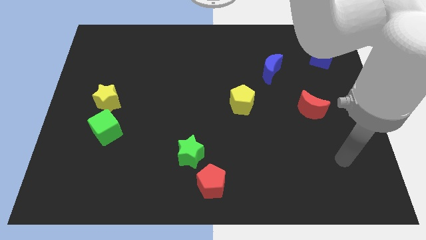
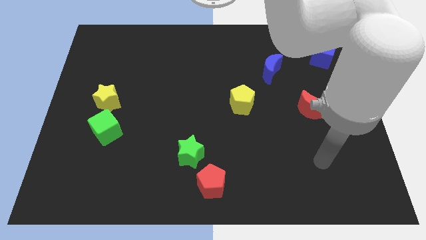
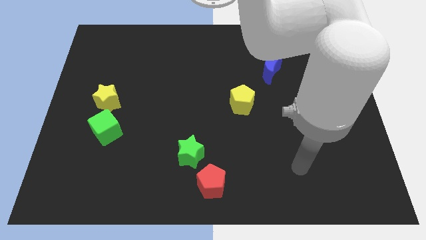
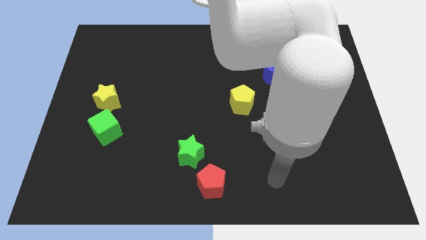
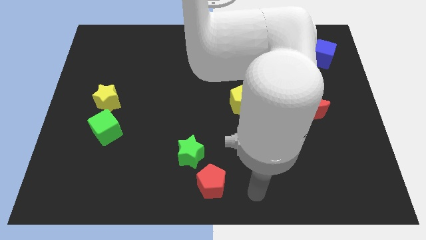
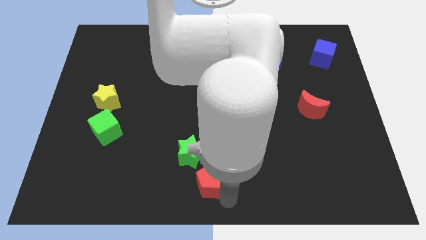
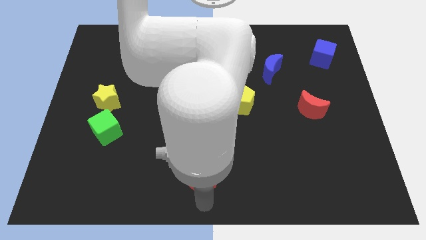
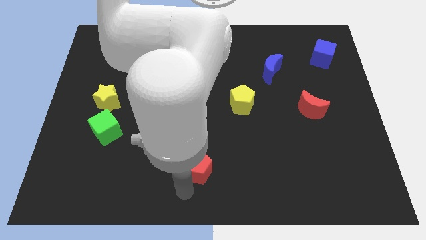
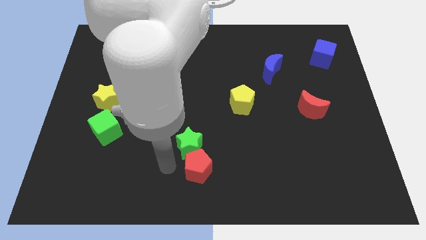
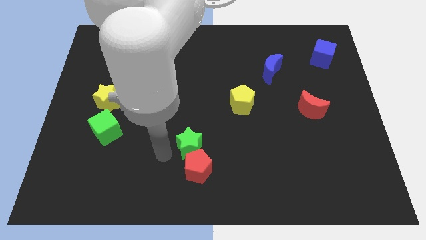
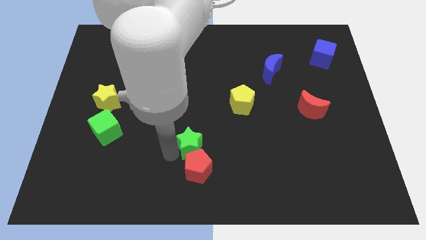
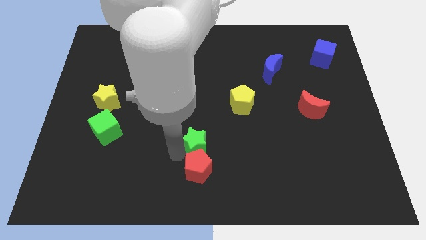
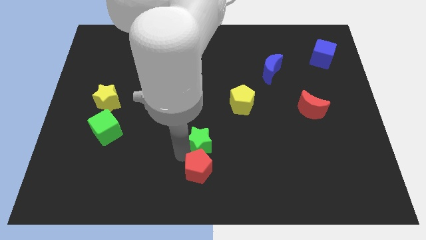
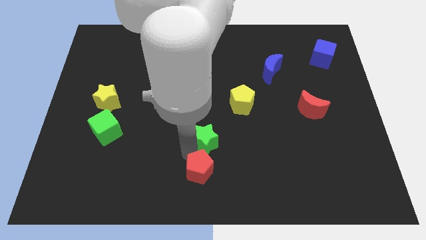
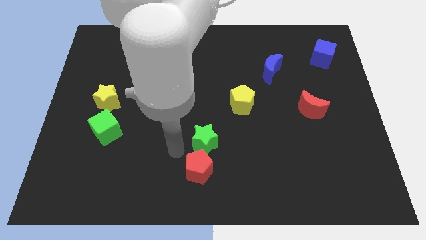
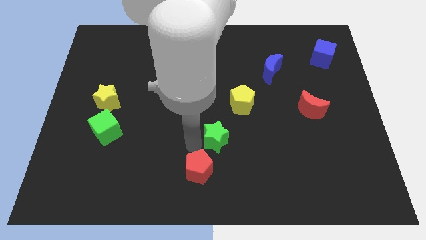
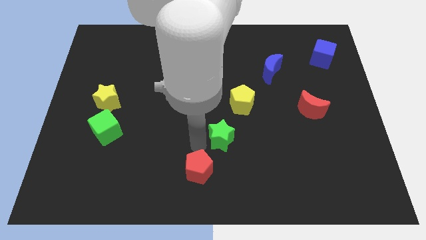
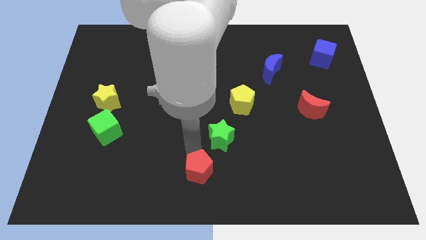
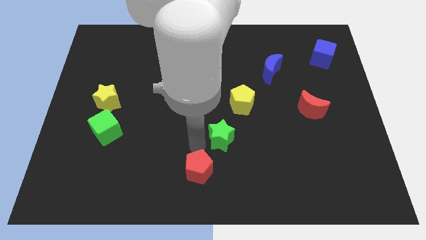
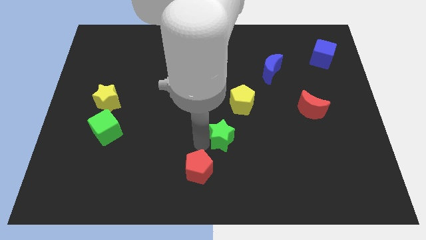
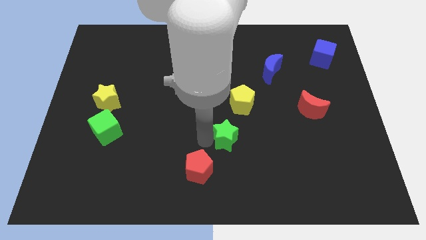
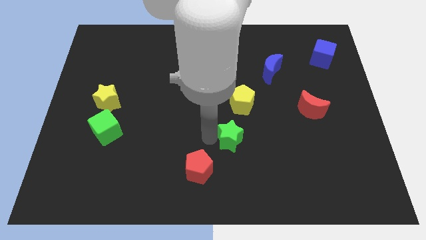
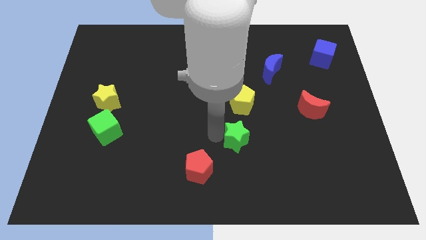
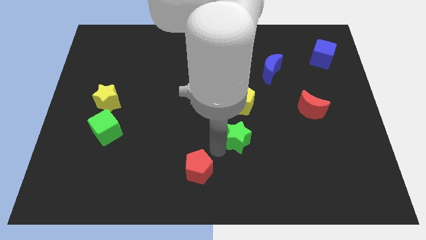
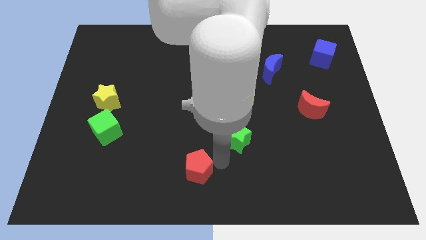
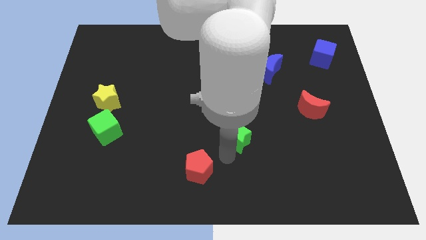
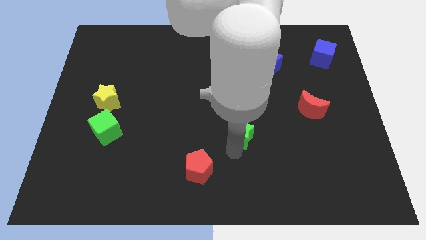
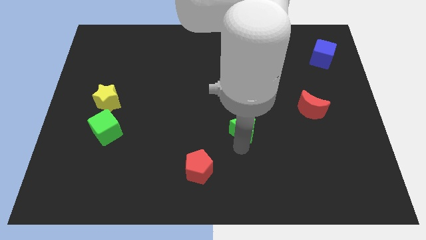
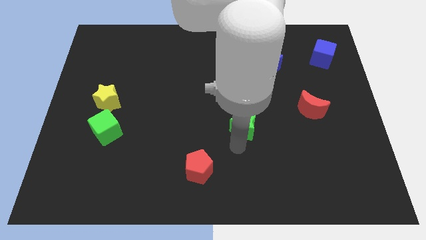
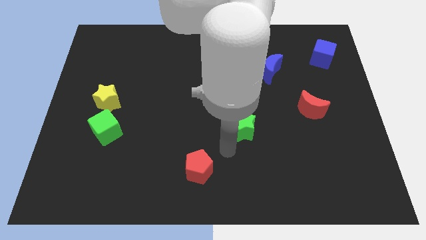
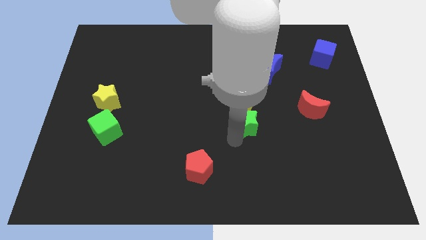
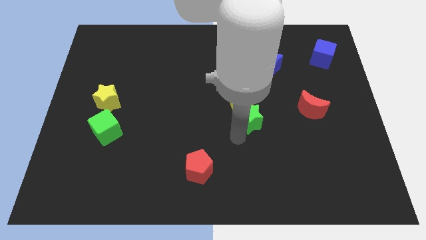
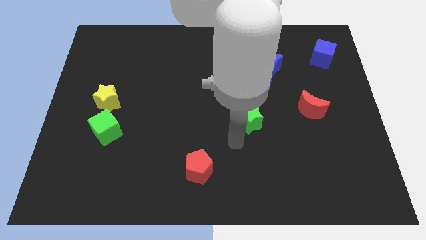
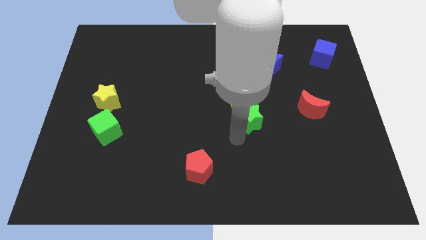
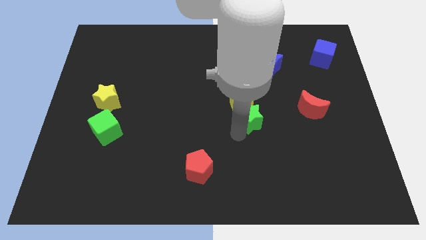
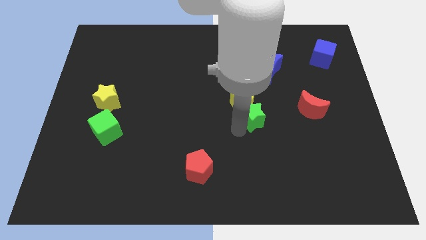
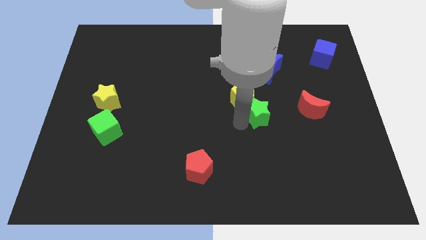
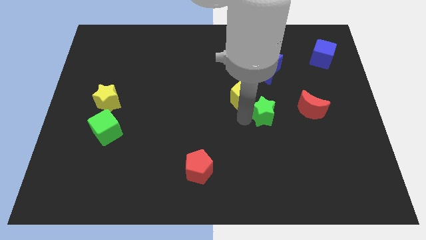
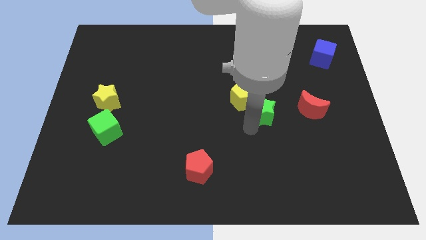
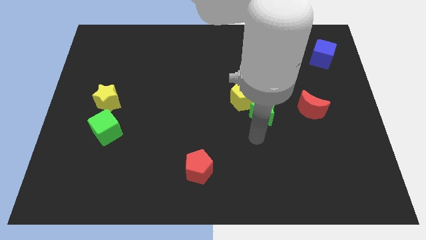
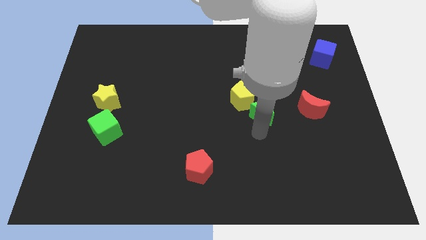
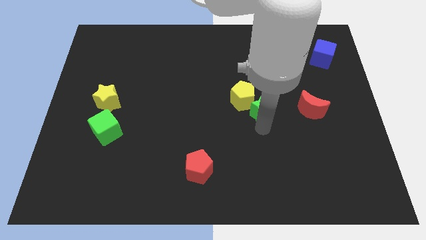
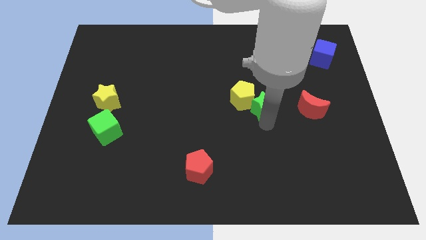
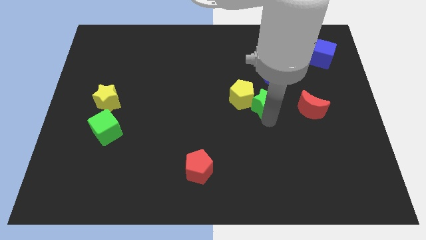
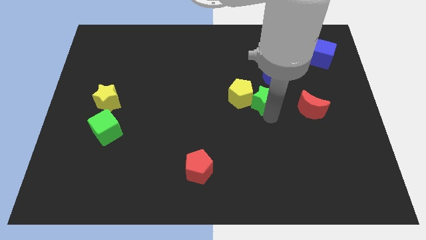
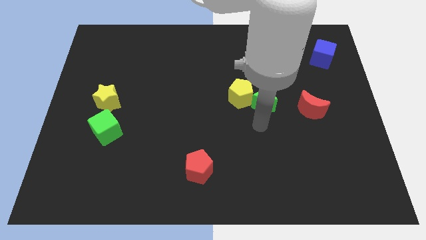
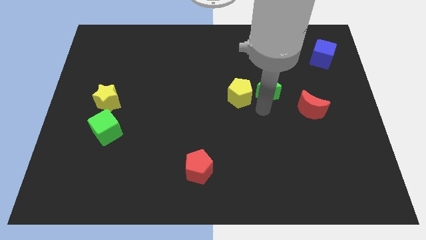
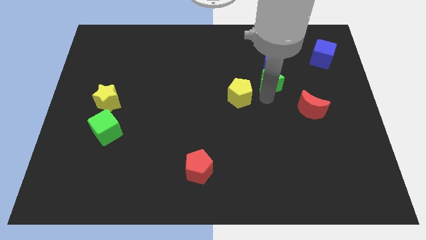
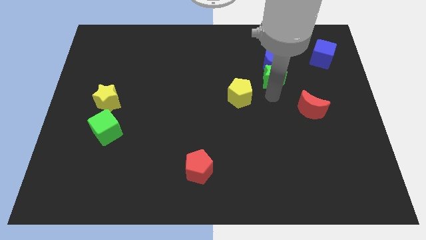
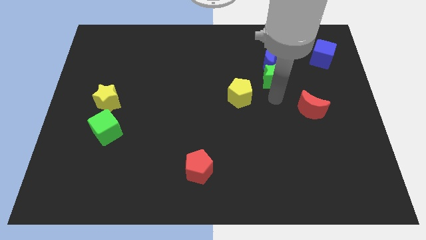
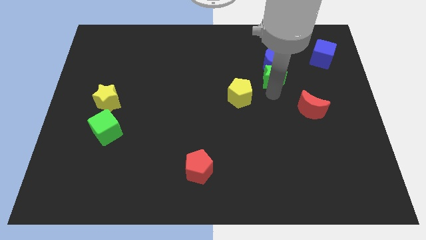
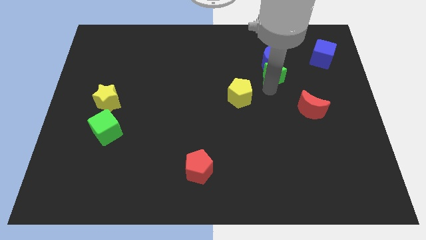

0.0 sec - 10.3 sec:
push the green star to the blue moon

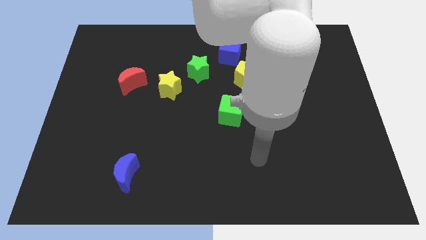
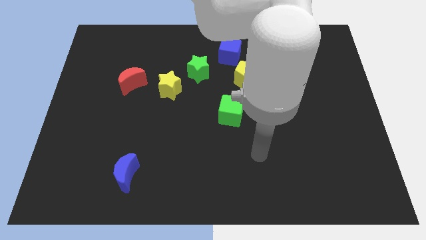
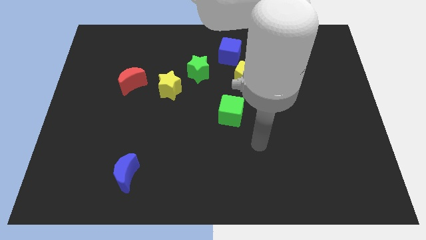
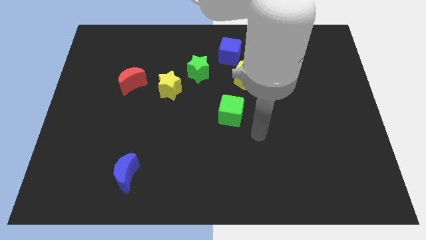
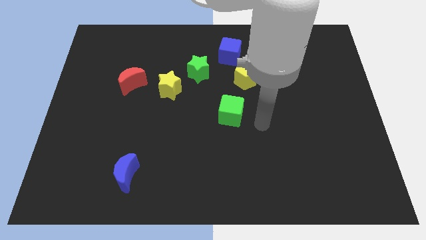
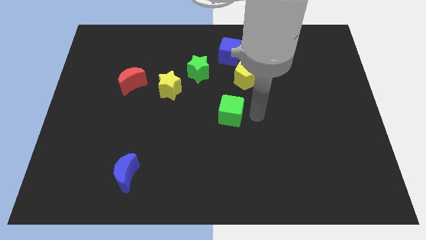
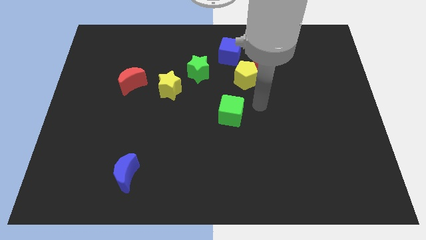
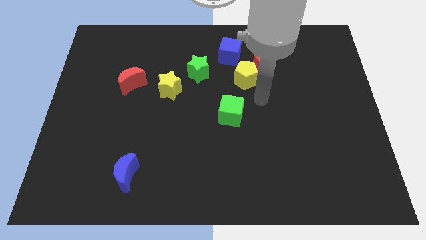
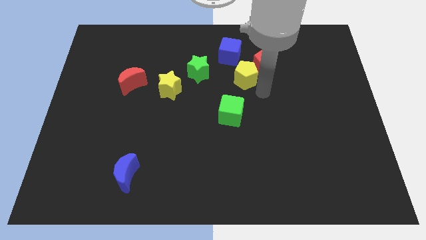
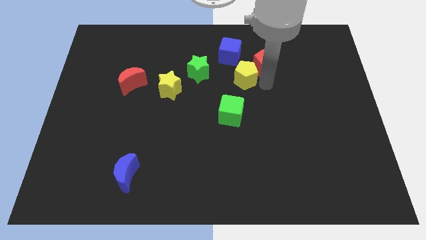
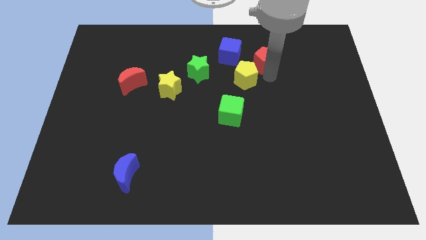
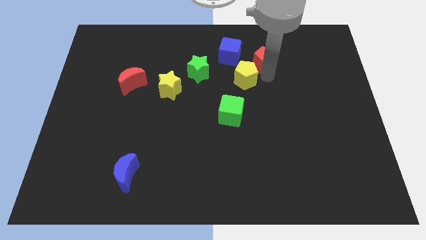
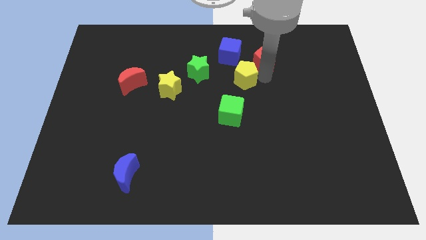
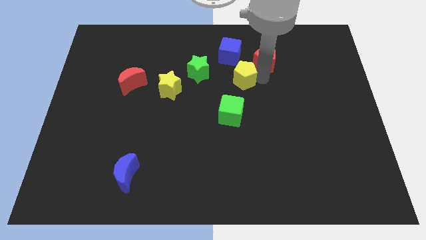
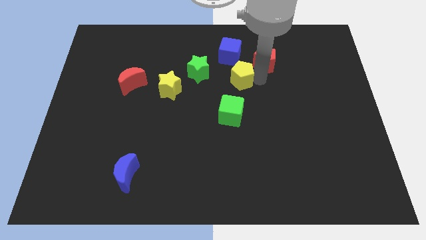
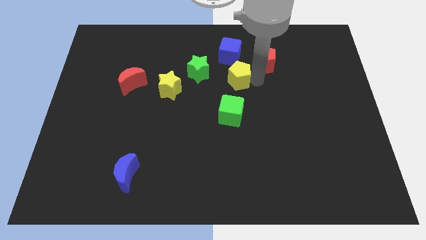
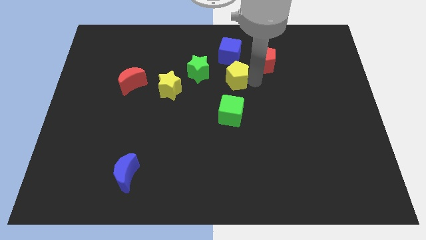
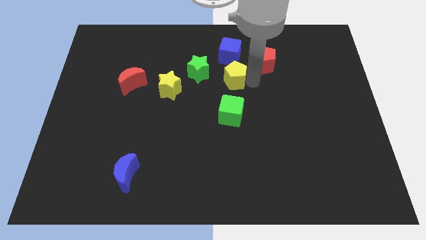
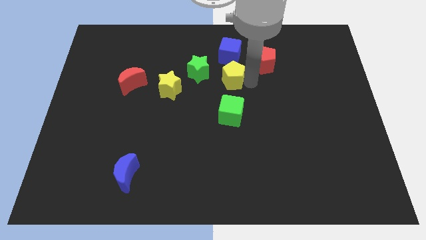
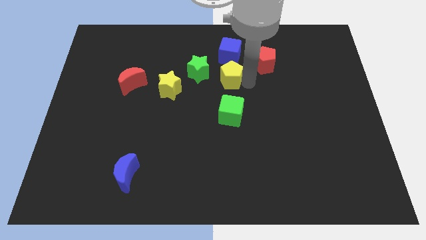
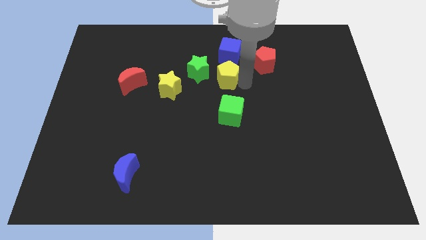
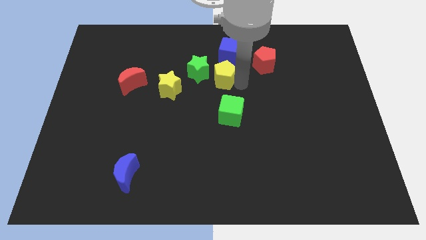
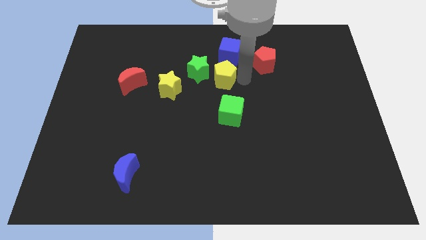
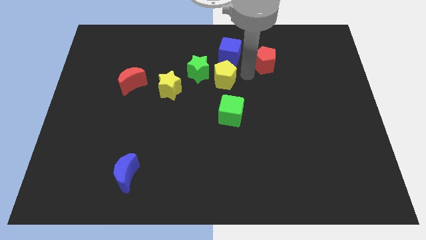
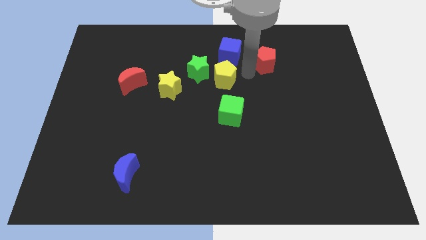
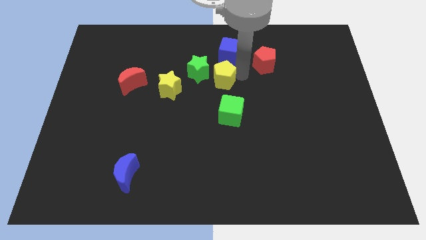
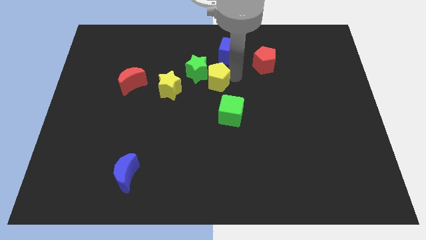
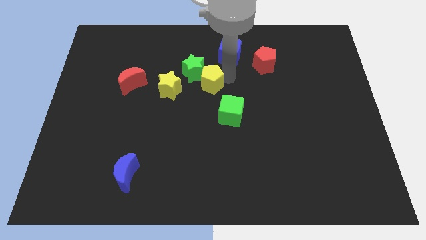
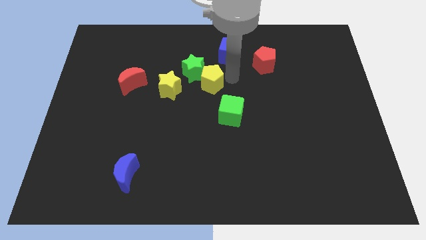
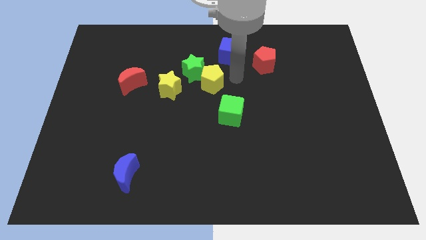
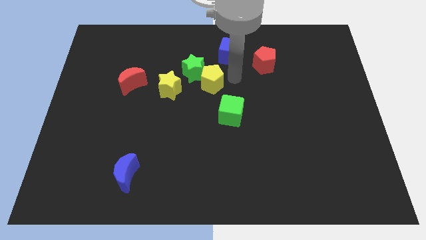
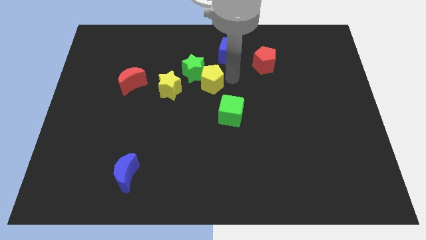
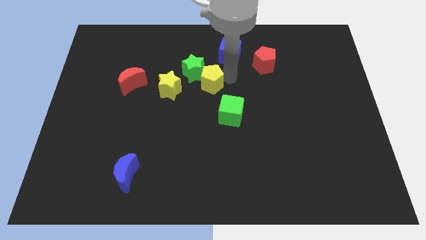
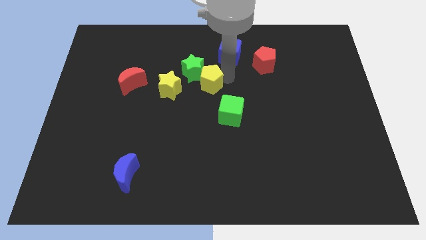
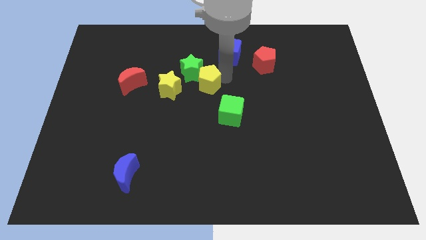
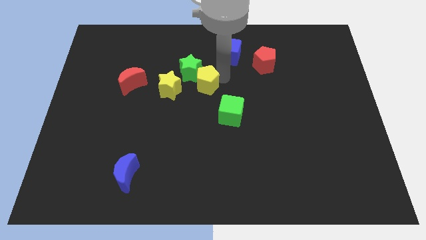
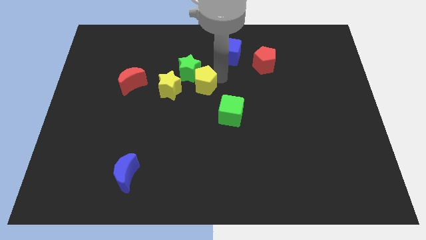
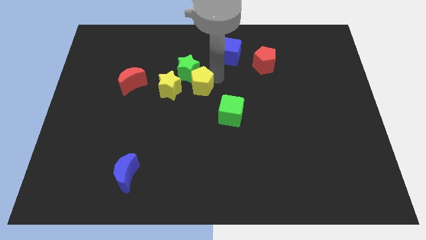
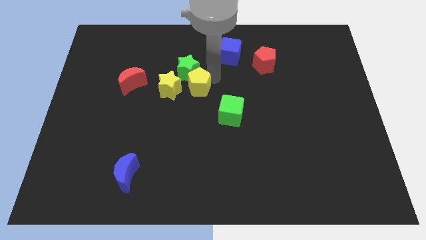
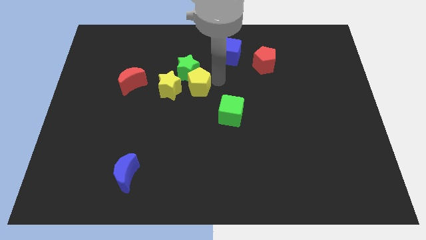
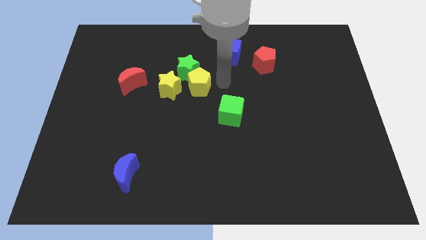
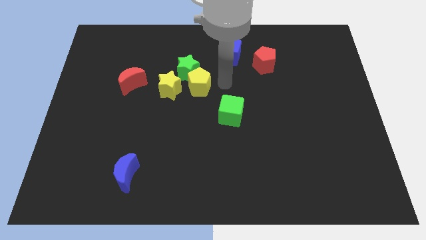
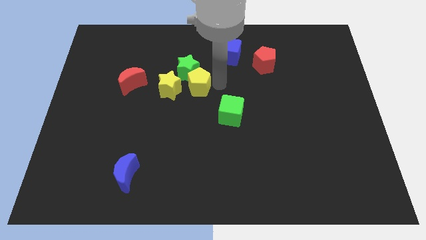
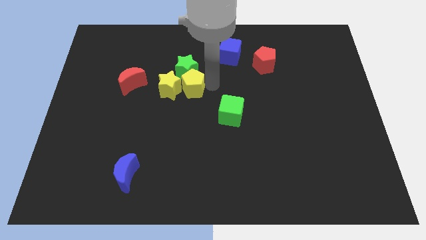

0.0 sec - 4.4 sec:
move the yellow pentagon towards the yellow star
